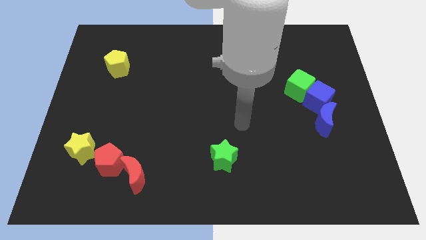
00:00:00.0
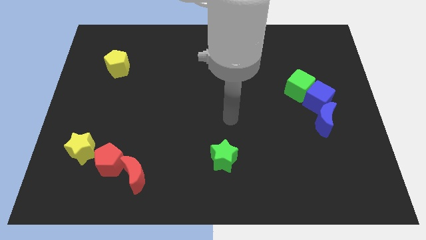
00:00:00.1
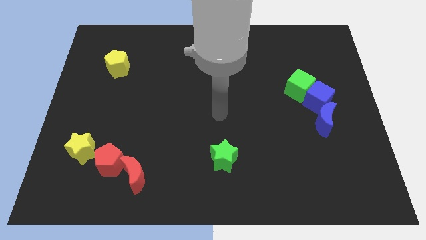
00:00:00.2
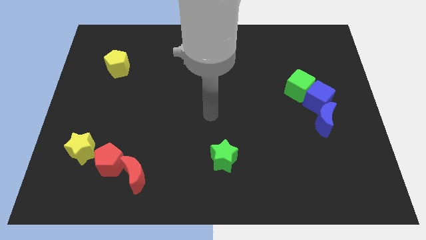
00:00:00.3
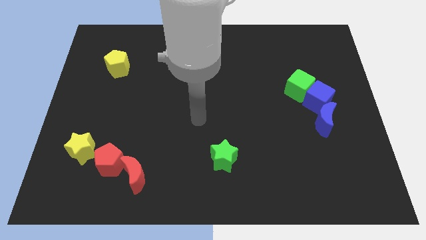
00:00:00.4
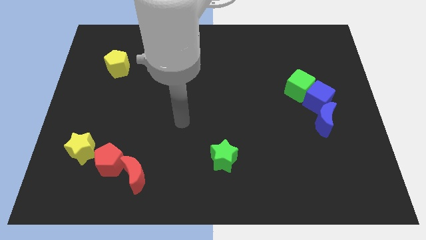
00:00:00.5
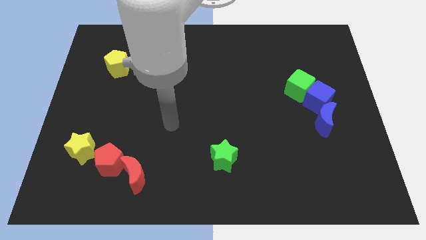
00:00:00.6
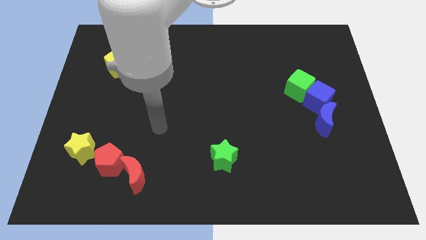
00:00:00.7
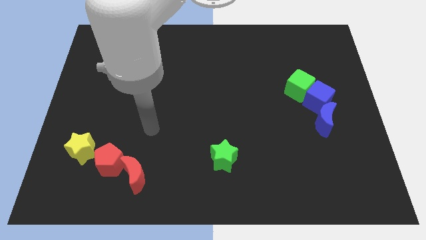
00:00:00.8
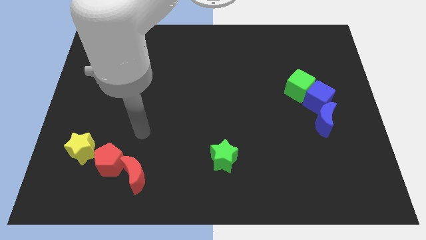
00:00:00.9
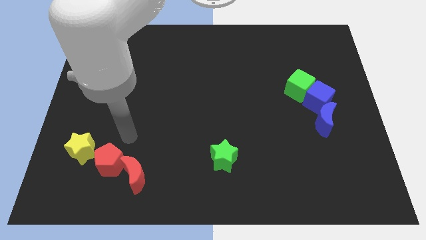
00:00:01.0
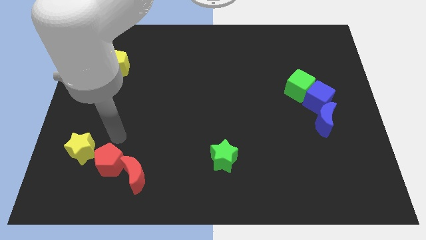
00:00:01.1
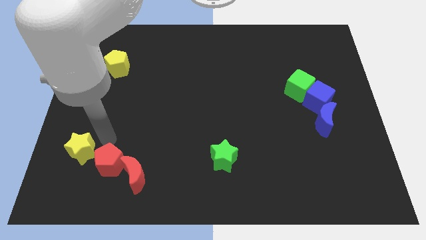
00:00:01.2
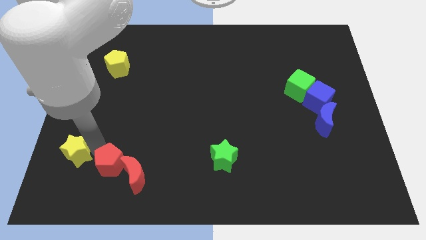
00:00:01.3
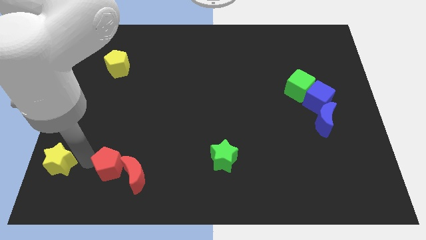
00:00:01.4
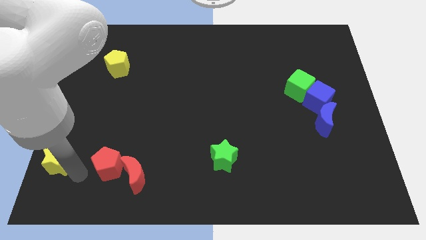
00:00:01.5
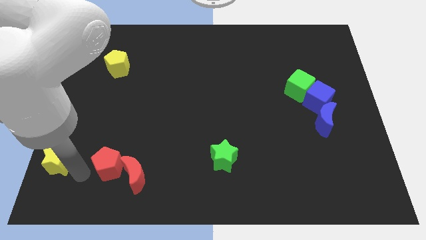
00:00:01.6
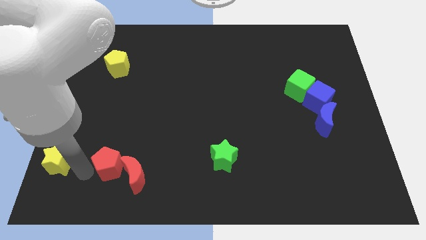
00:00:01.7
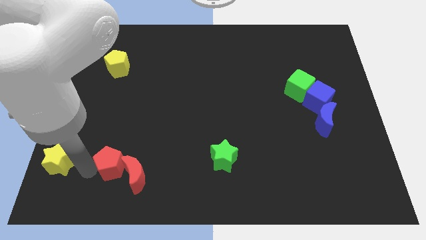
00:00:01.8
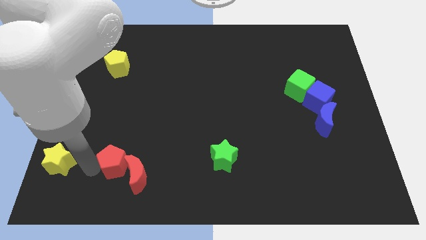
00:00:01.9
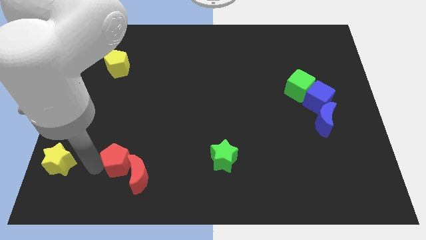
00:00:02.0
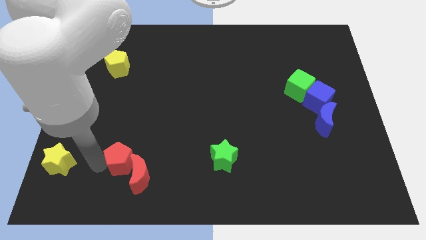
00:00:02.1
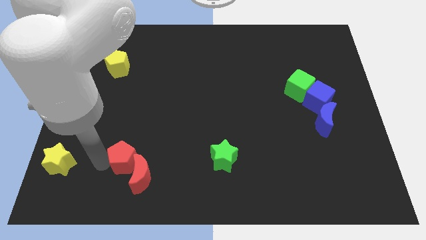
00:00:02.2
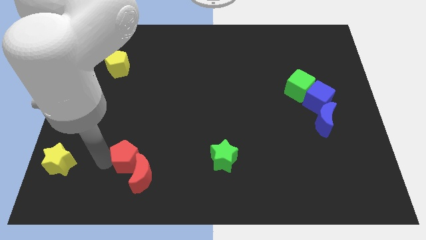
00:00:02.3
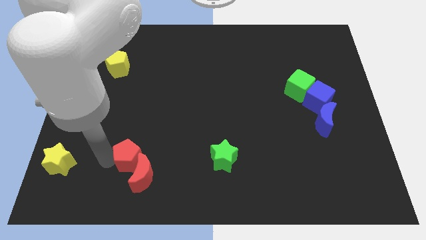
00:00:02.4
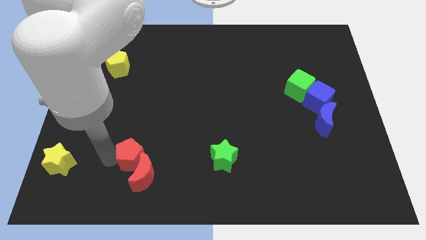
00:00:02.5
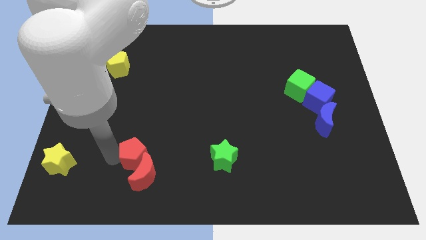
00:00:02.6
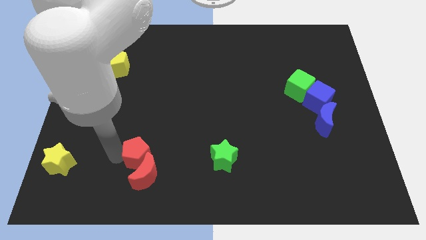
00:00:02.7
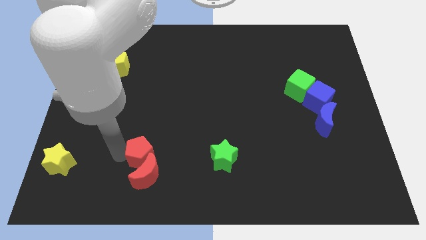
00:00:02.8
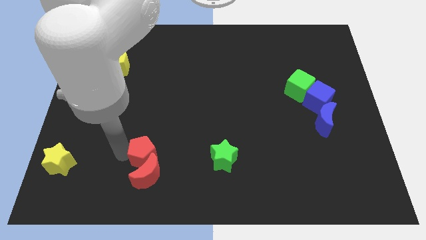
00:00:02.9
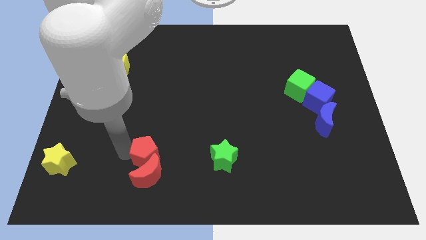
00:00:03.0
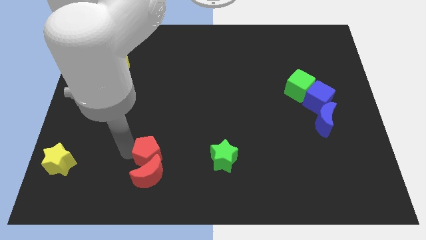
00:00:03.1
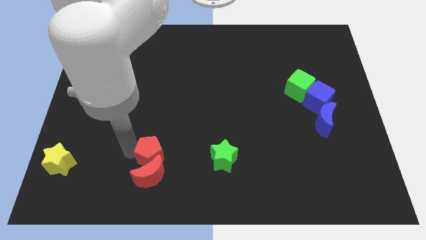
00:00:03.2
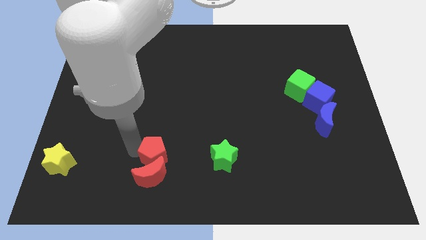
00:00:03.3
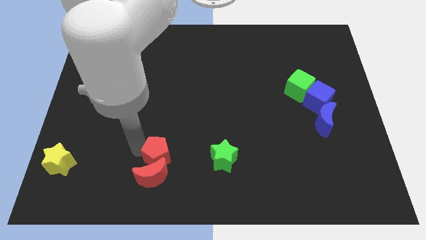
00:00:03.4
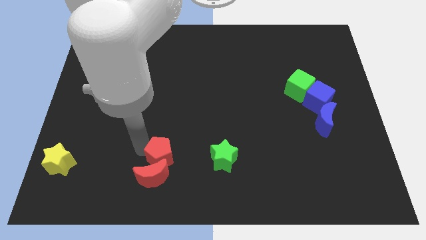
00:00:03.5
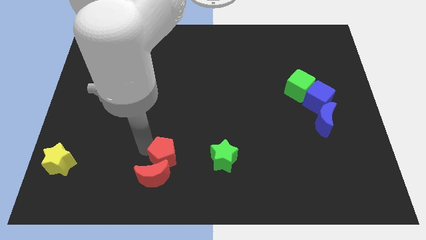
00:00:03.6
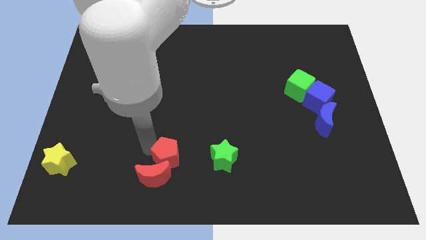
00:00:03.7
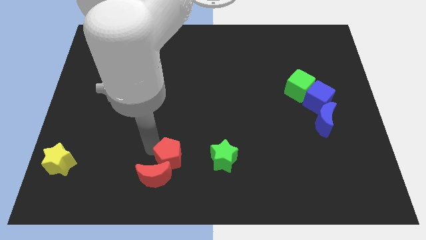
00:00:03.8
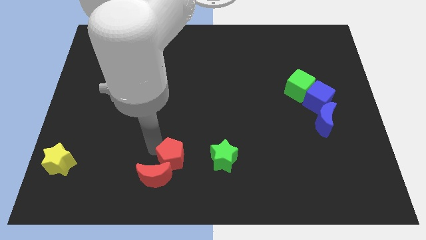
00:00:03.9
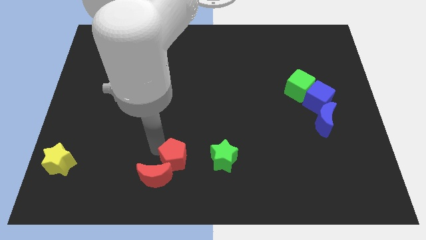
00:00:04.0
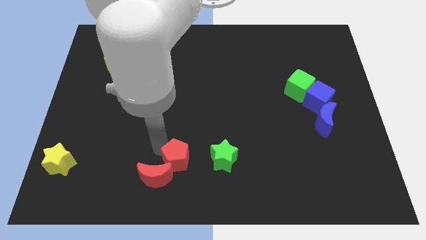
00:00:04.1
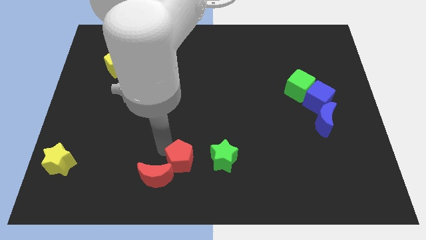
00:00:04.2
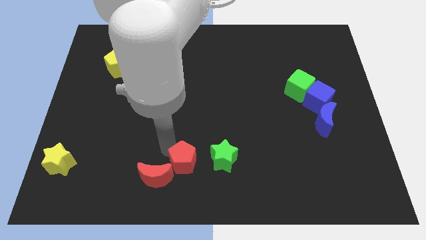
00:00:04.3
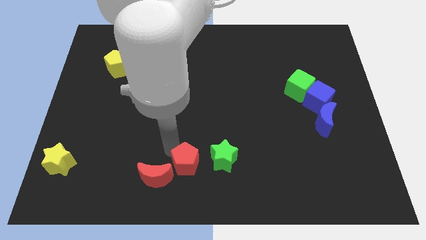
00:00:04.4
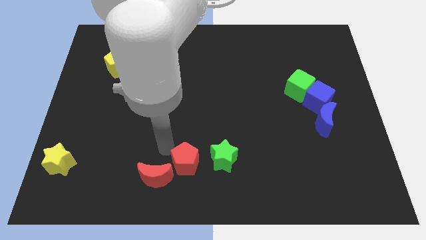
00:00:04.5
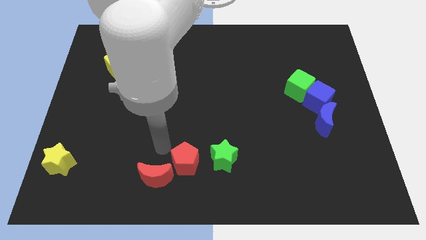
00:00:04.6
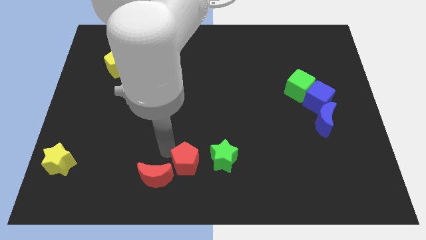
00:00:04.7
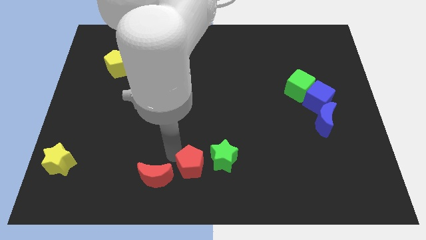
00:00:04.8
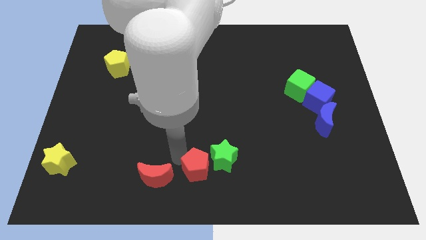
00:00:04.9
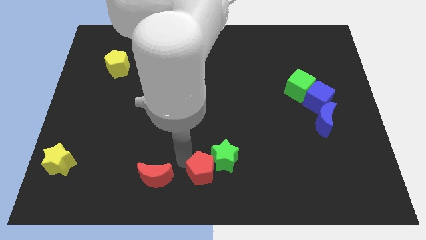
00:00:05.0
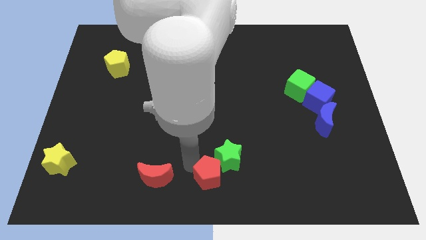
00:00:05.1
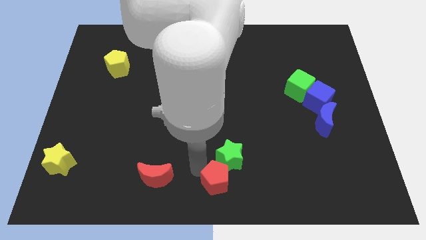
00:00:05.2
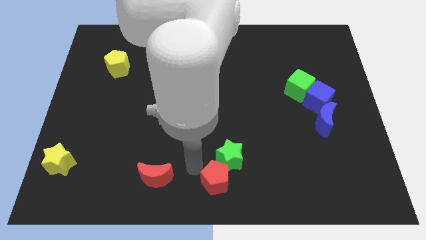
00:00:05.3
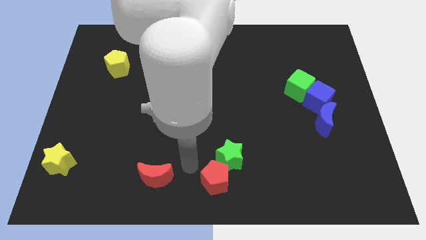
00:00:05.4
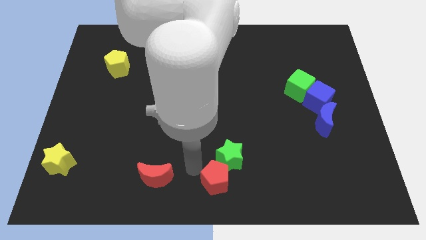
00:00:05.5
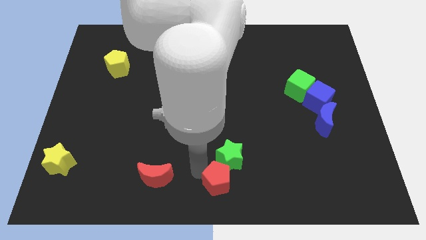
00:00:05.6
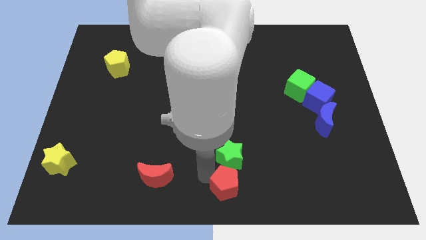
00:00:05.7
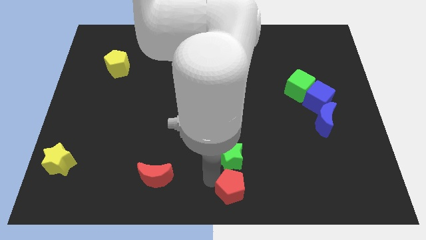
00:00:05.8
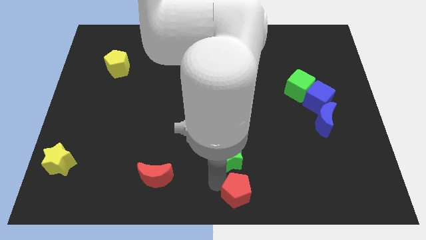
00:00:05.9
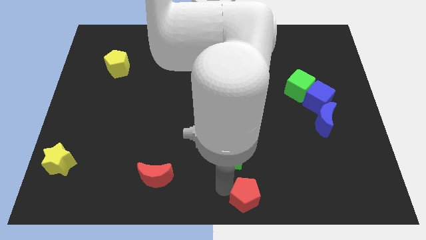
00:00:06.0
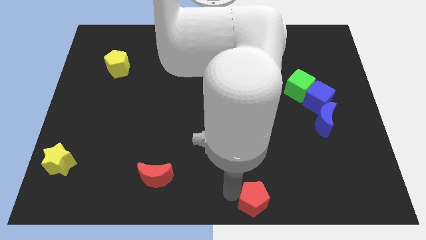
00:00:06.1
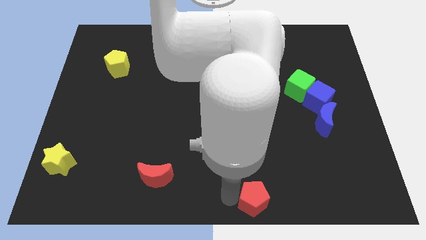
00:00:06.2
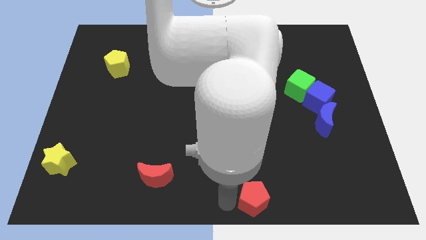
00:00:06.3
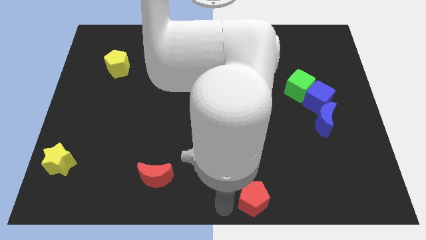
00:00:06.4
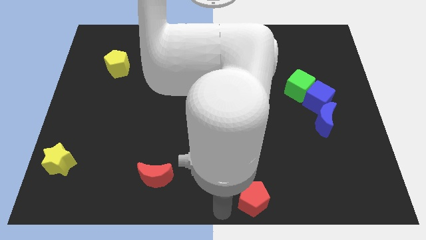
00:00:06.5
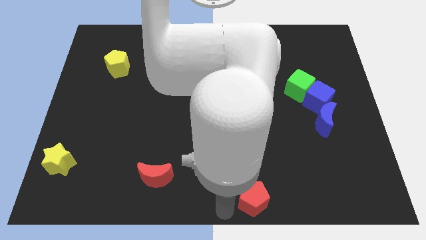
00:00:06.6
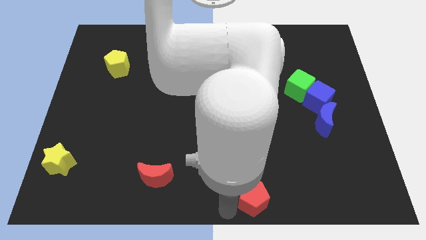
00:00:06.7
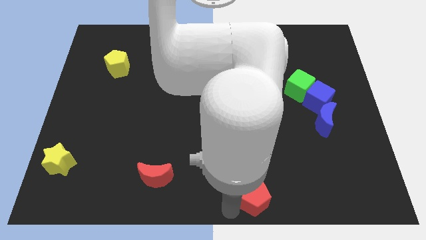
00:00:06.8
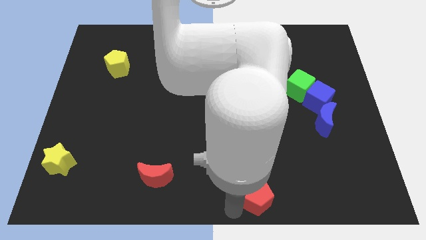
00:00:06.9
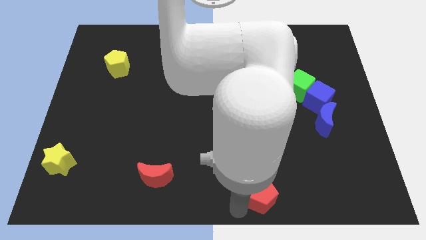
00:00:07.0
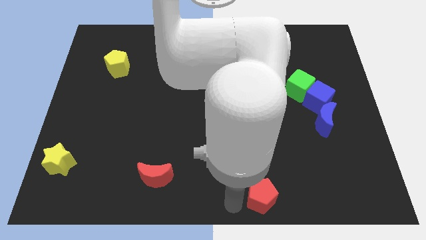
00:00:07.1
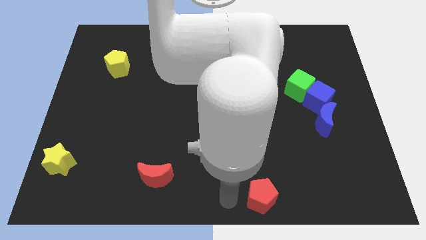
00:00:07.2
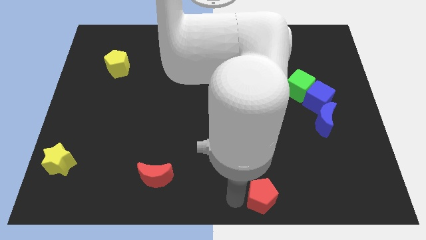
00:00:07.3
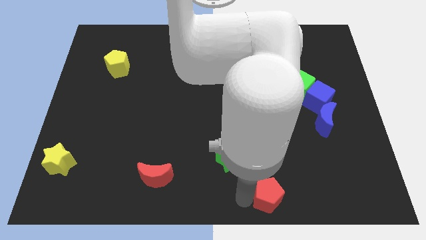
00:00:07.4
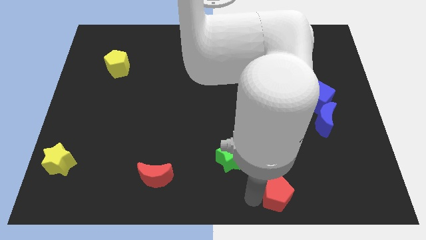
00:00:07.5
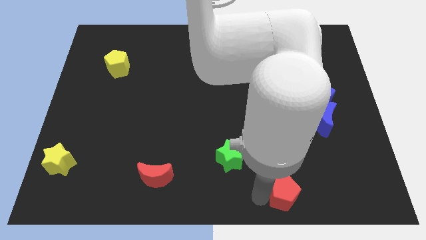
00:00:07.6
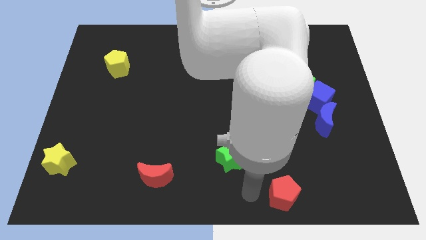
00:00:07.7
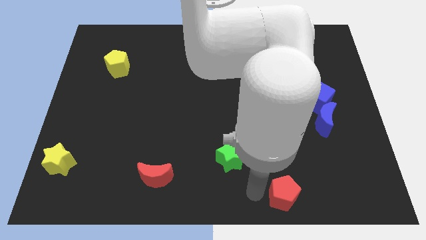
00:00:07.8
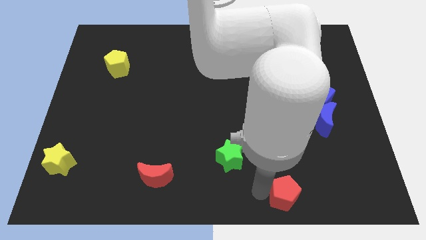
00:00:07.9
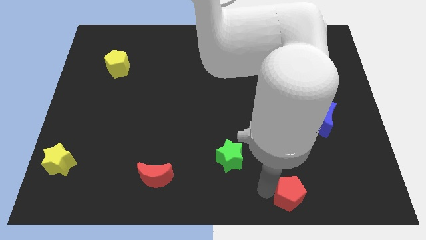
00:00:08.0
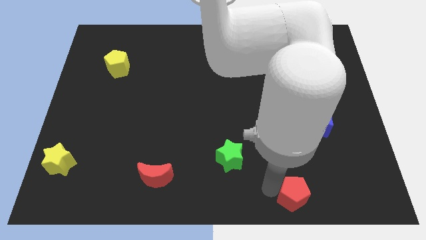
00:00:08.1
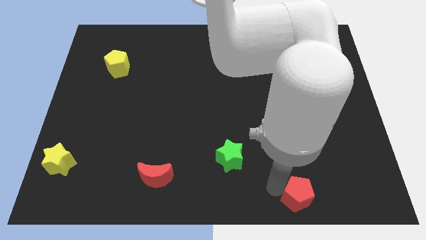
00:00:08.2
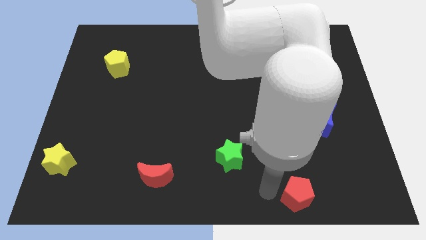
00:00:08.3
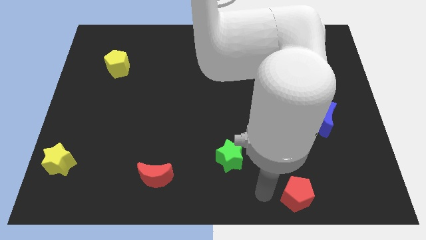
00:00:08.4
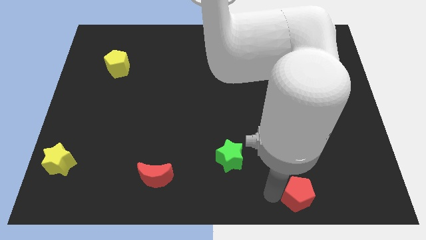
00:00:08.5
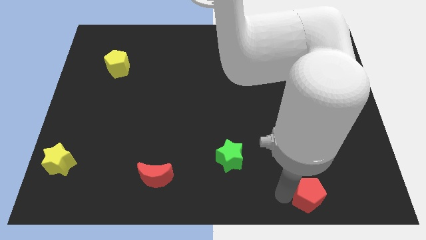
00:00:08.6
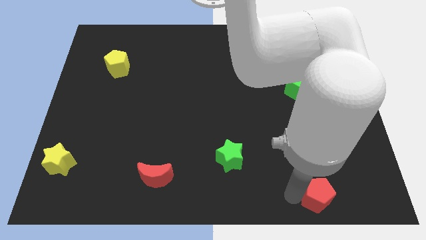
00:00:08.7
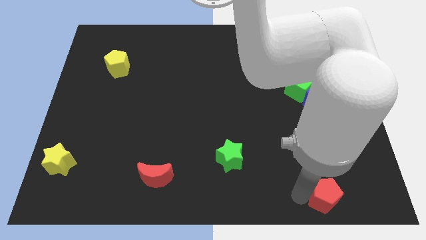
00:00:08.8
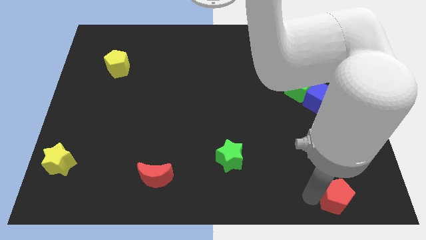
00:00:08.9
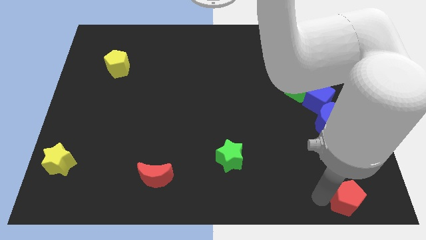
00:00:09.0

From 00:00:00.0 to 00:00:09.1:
push the red pentagon to the bottom right of the board
